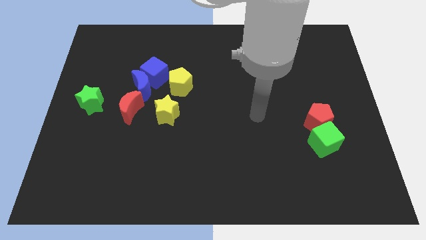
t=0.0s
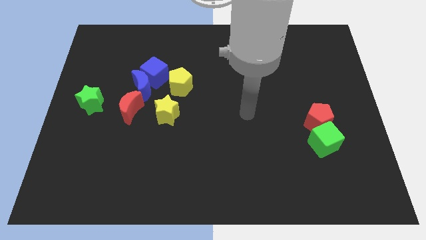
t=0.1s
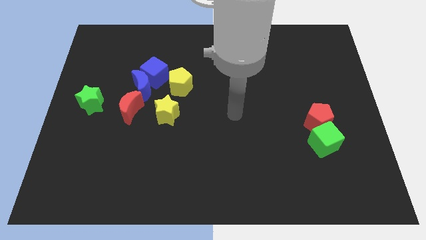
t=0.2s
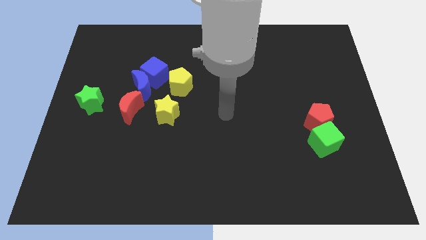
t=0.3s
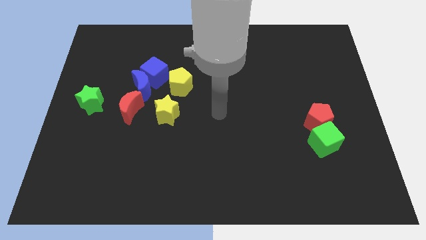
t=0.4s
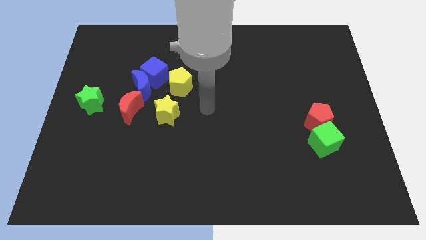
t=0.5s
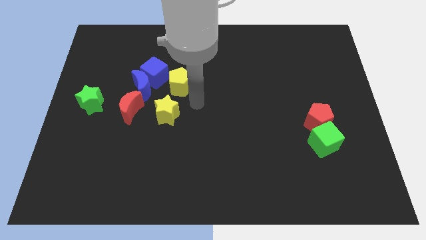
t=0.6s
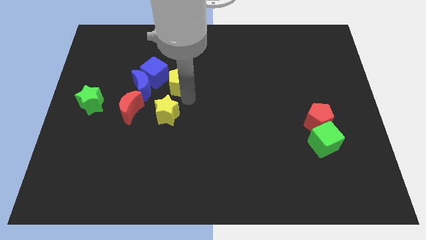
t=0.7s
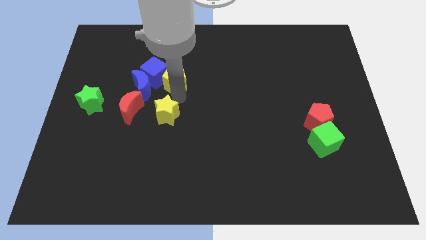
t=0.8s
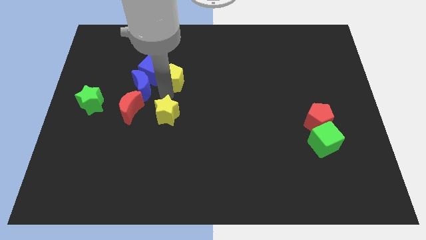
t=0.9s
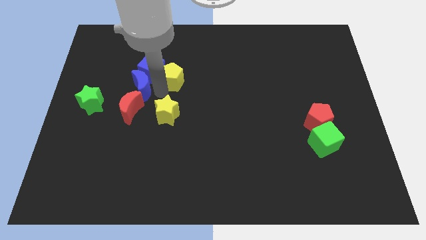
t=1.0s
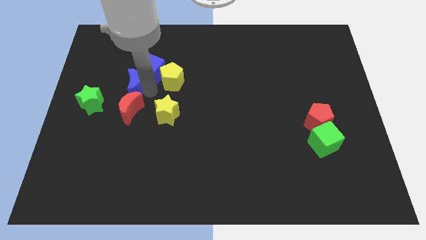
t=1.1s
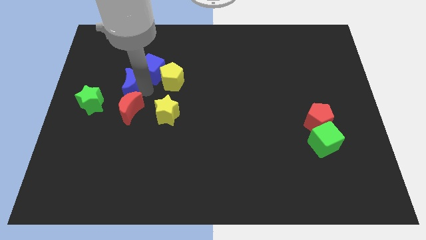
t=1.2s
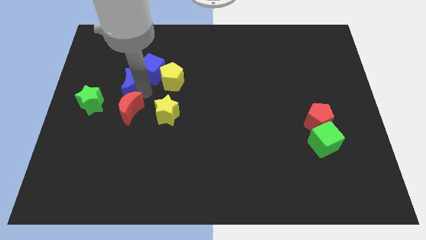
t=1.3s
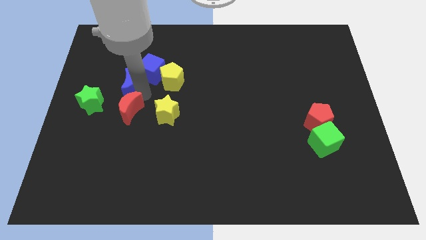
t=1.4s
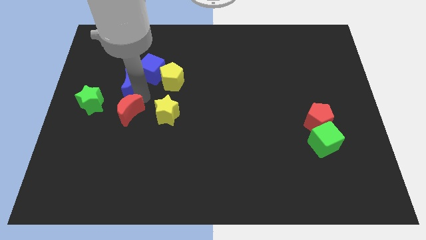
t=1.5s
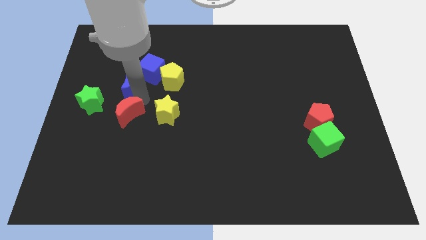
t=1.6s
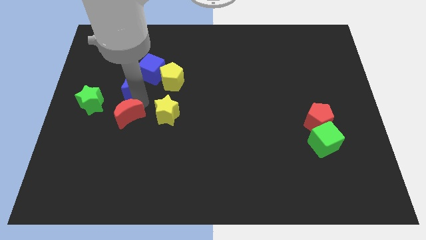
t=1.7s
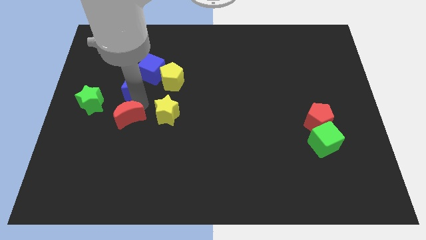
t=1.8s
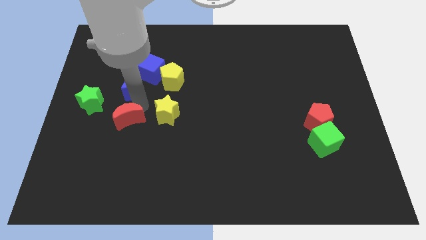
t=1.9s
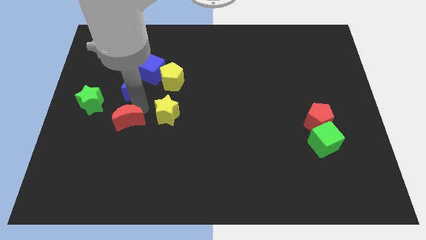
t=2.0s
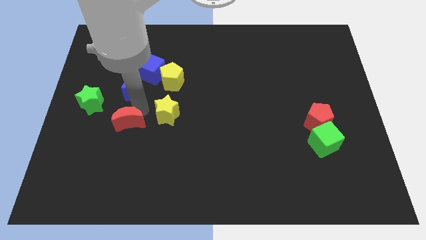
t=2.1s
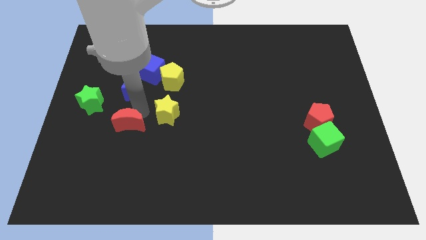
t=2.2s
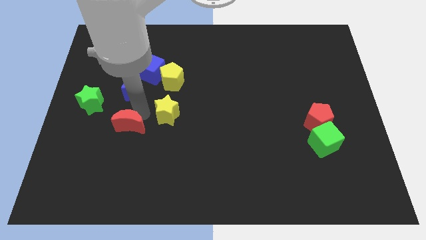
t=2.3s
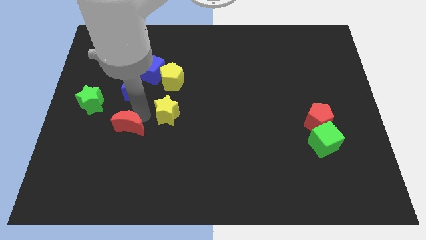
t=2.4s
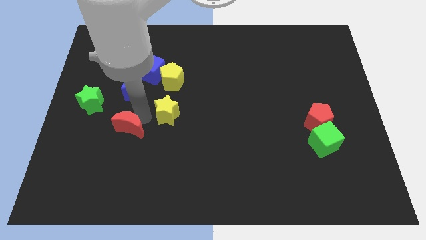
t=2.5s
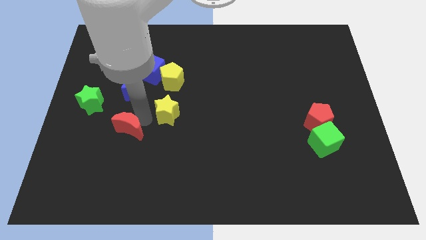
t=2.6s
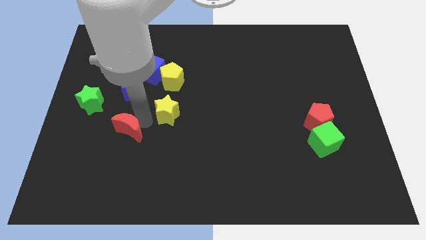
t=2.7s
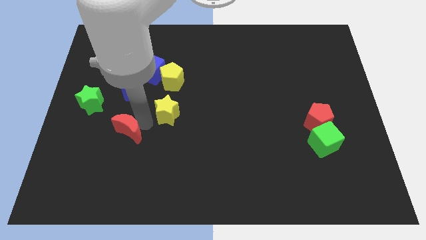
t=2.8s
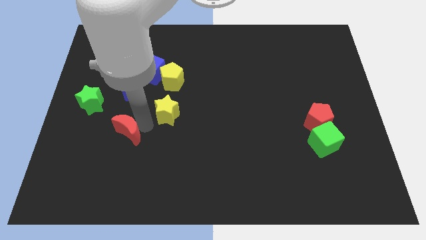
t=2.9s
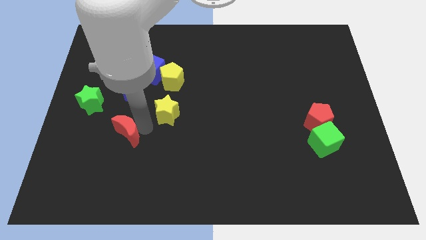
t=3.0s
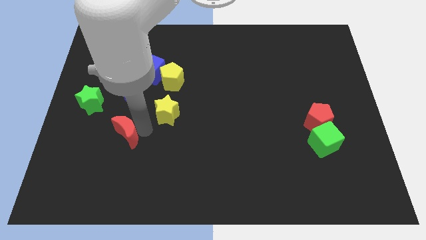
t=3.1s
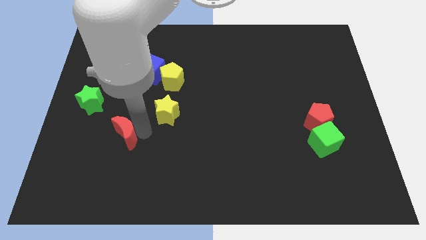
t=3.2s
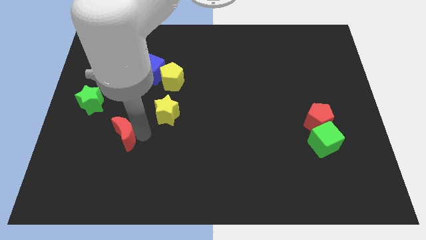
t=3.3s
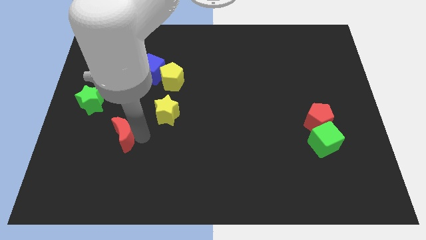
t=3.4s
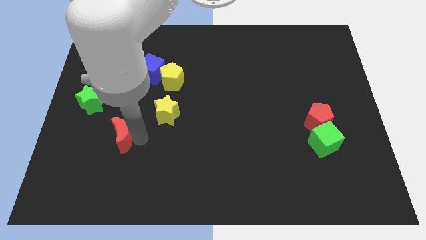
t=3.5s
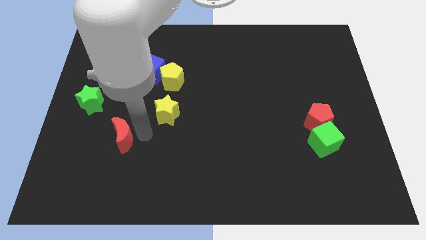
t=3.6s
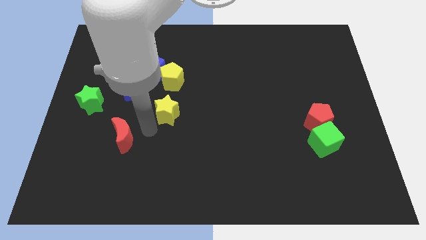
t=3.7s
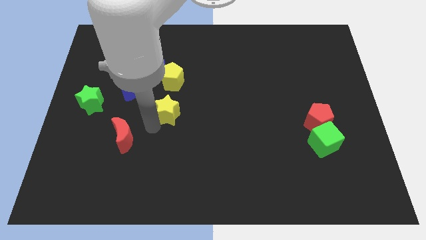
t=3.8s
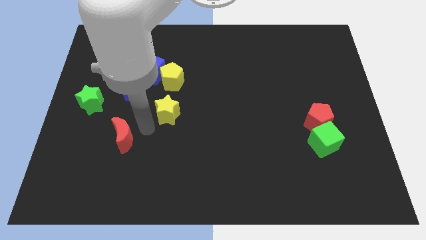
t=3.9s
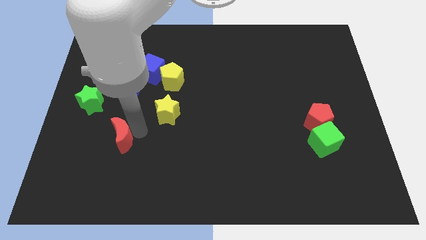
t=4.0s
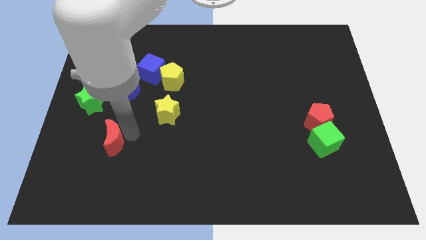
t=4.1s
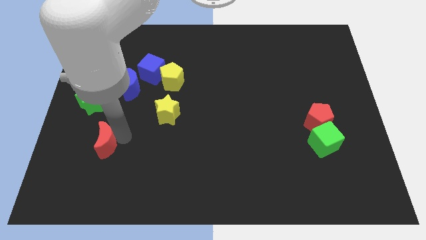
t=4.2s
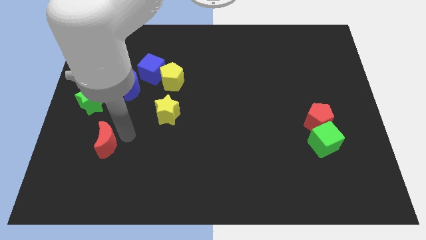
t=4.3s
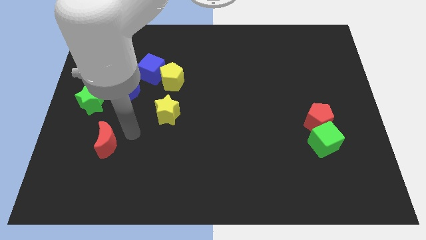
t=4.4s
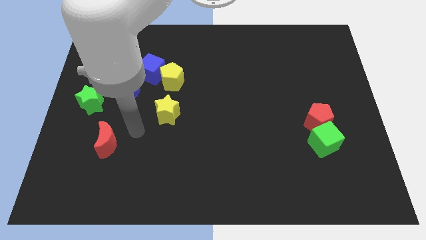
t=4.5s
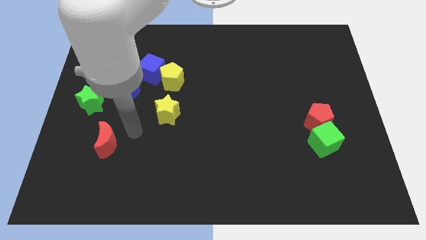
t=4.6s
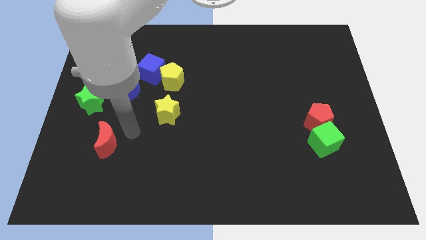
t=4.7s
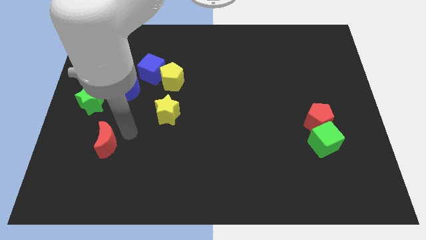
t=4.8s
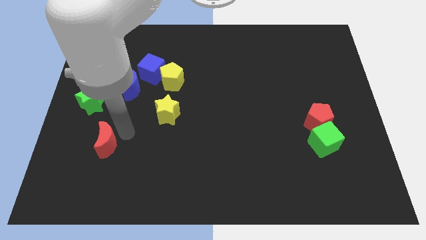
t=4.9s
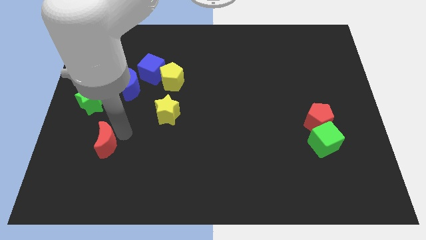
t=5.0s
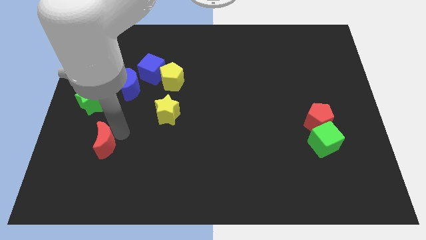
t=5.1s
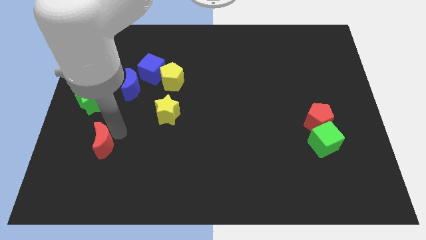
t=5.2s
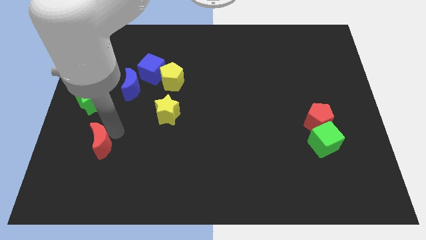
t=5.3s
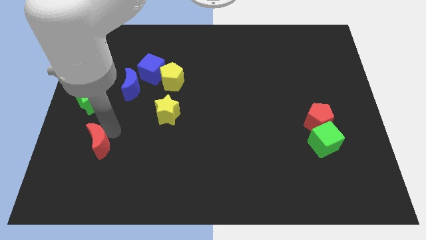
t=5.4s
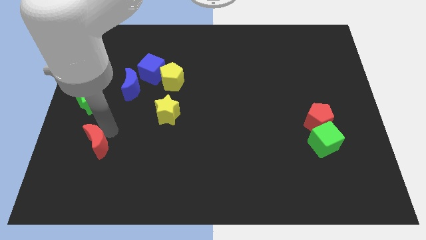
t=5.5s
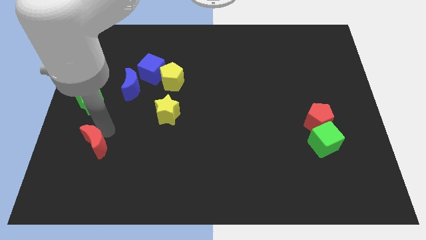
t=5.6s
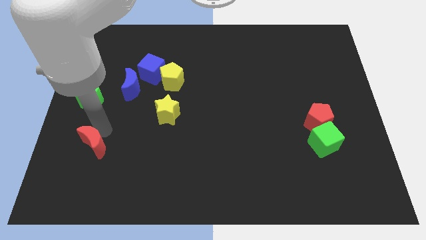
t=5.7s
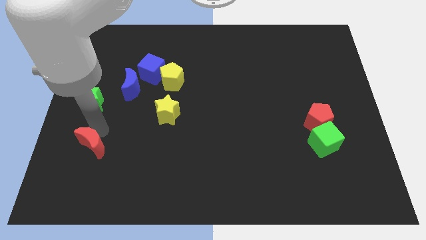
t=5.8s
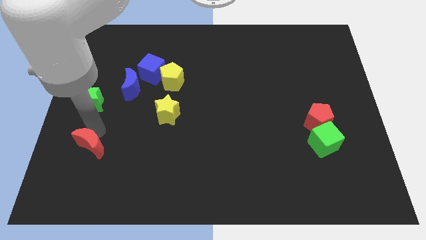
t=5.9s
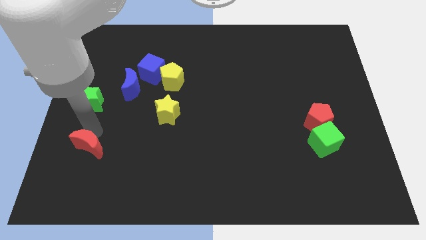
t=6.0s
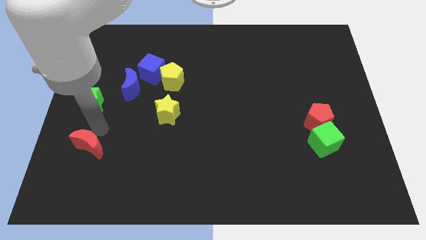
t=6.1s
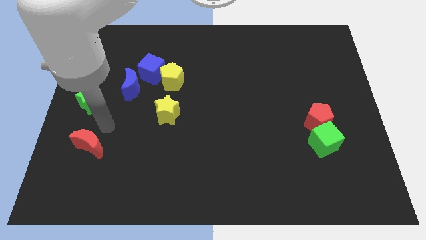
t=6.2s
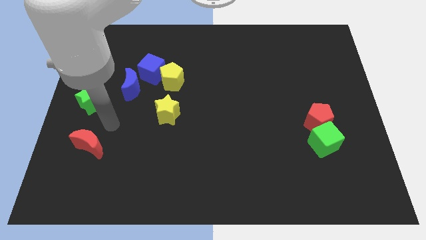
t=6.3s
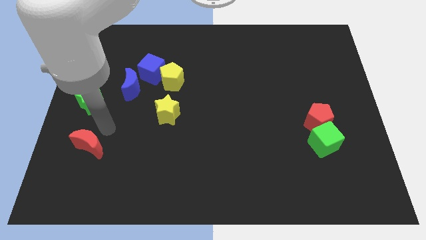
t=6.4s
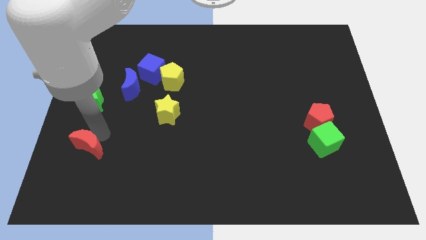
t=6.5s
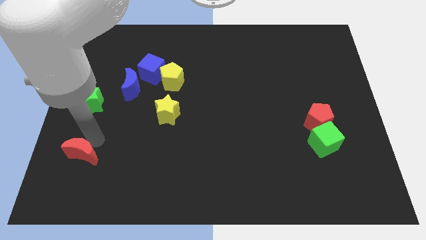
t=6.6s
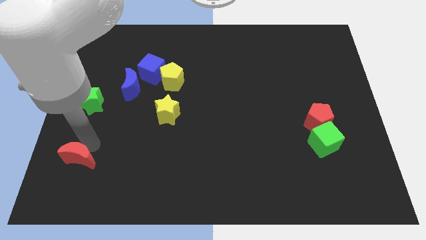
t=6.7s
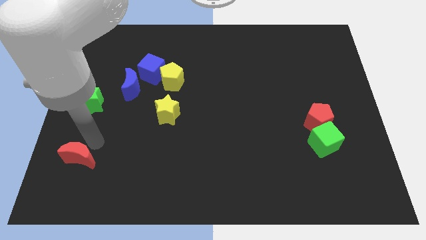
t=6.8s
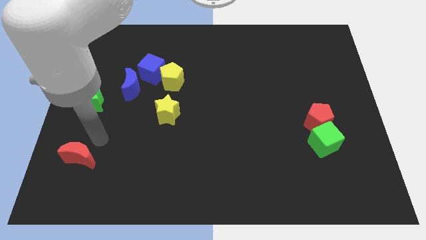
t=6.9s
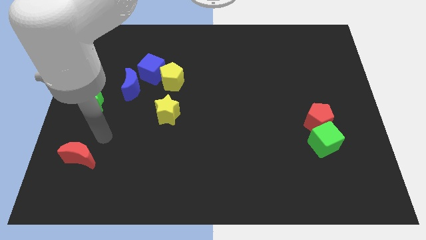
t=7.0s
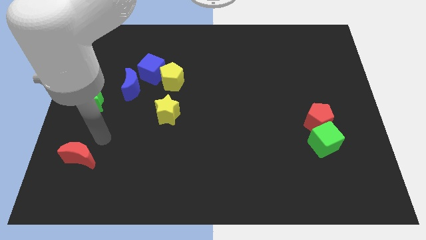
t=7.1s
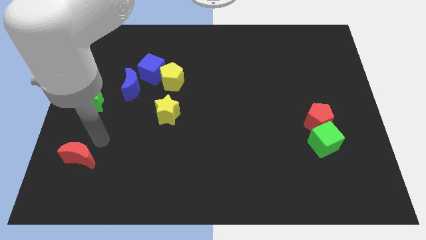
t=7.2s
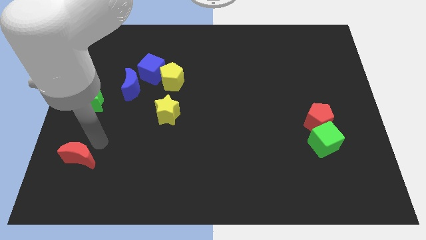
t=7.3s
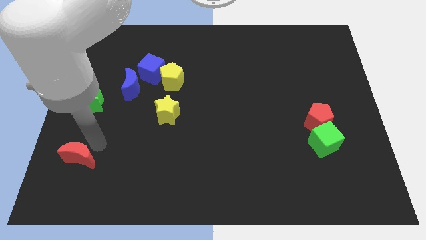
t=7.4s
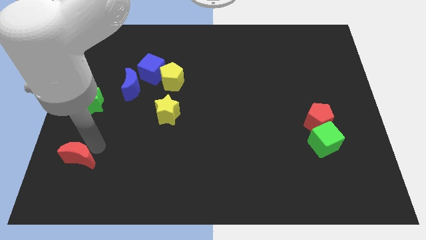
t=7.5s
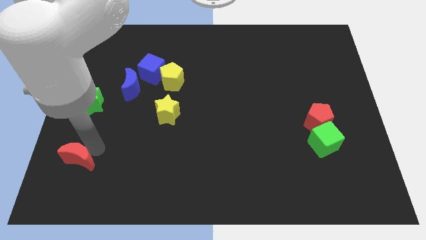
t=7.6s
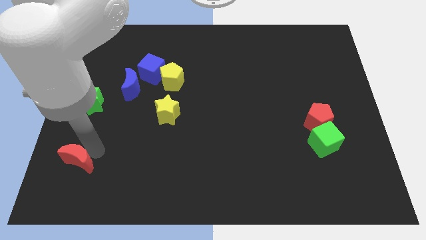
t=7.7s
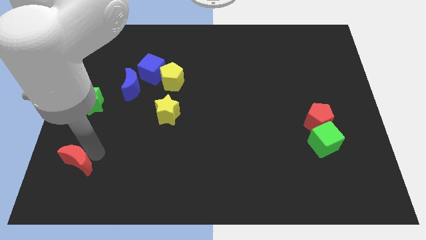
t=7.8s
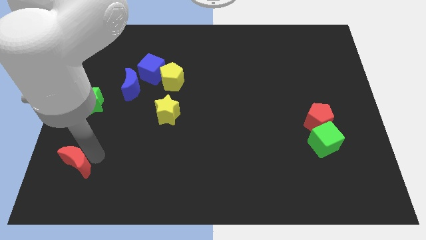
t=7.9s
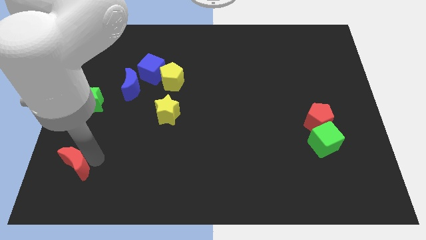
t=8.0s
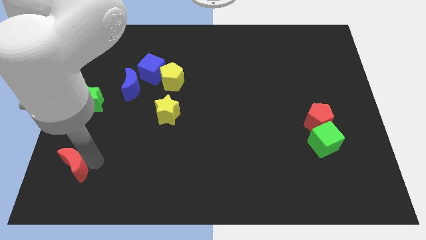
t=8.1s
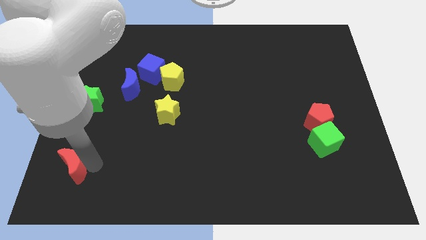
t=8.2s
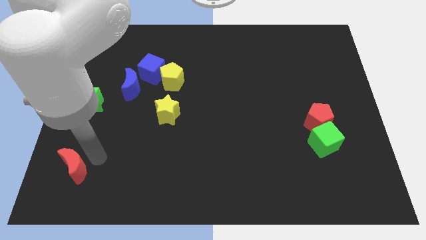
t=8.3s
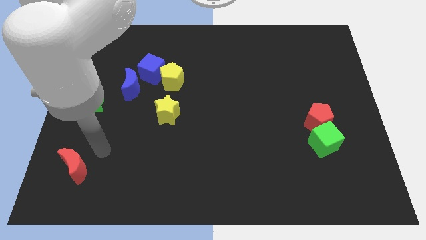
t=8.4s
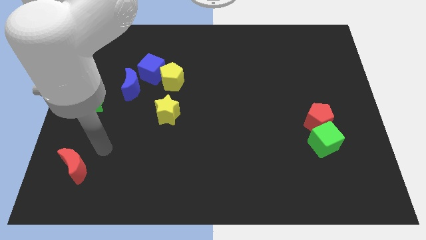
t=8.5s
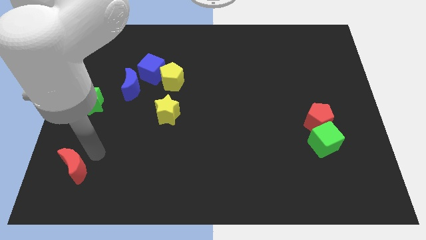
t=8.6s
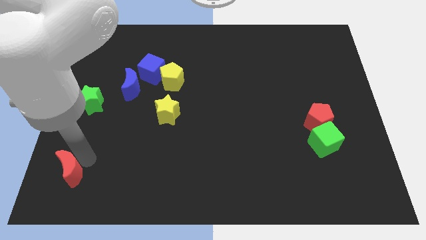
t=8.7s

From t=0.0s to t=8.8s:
push the red moon to the bottom left of the board
